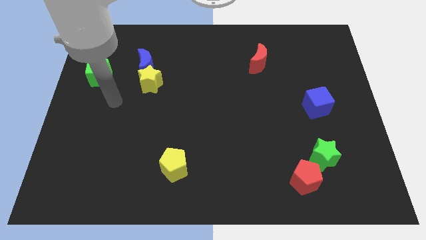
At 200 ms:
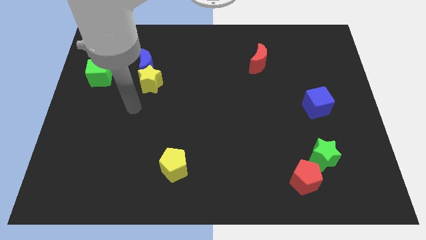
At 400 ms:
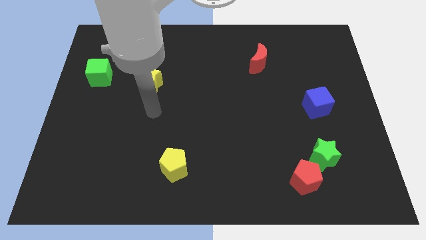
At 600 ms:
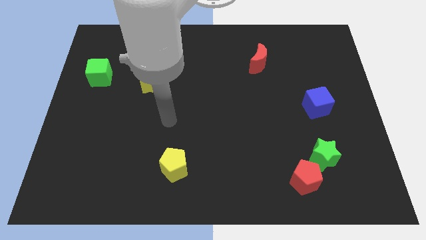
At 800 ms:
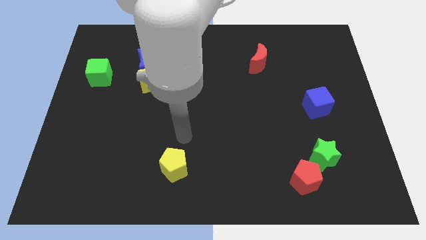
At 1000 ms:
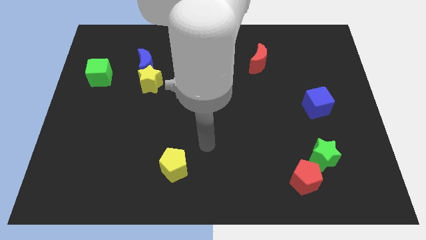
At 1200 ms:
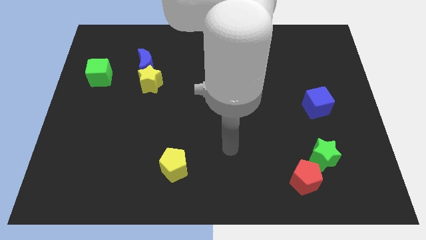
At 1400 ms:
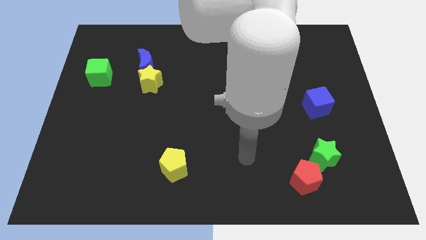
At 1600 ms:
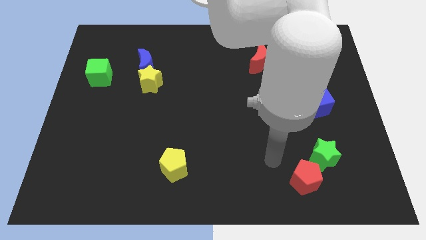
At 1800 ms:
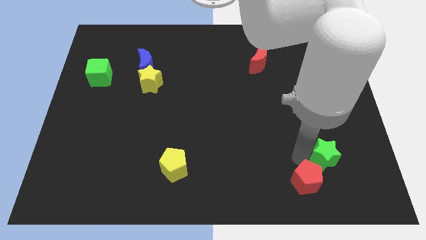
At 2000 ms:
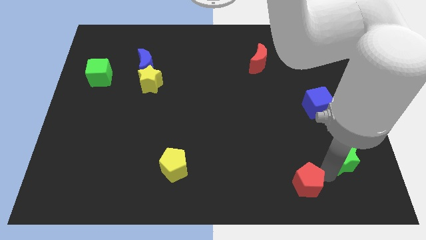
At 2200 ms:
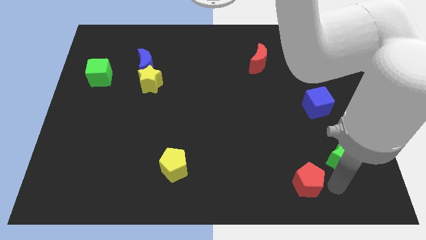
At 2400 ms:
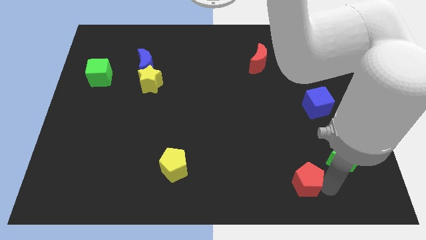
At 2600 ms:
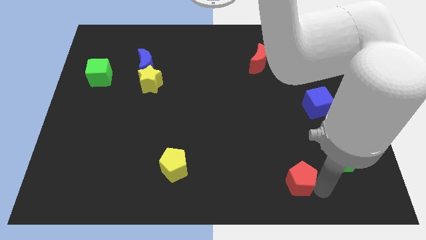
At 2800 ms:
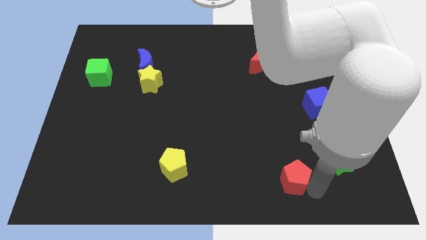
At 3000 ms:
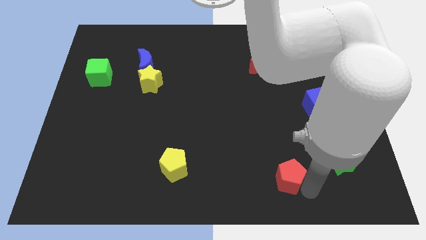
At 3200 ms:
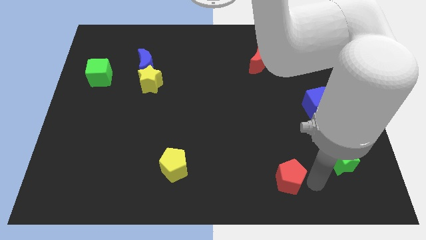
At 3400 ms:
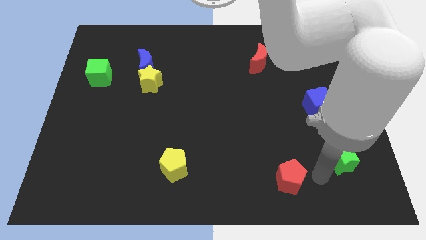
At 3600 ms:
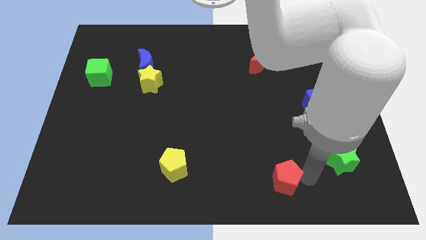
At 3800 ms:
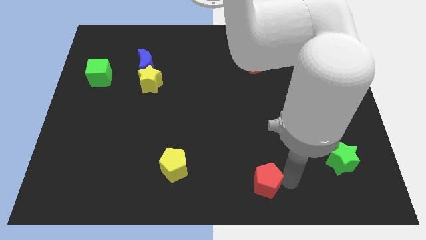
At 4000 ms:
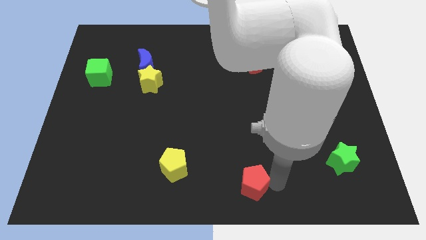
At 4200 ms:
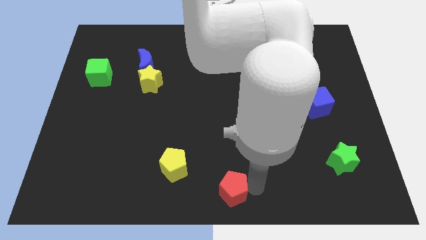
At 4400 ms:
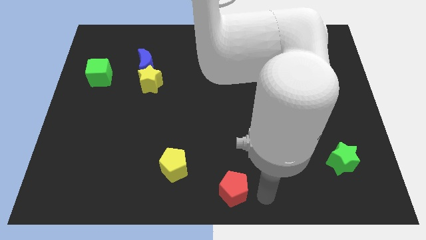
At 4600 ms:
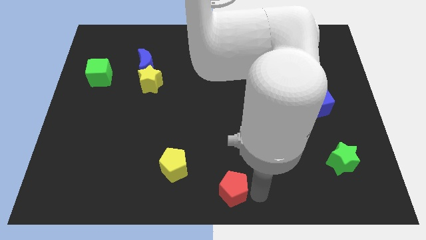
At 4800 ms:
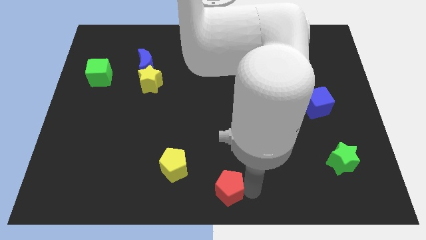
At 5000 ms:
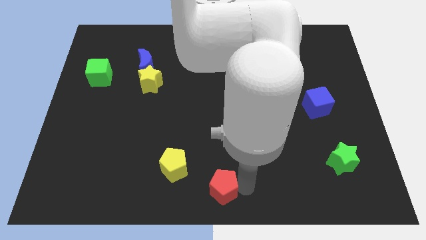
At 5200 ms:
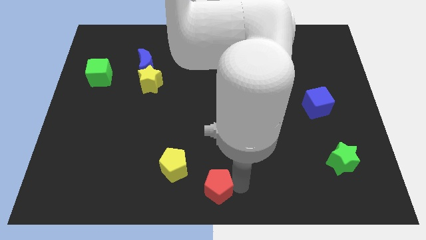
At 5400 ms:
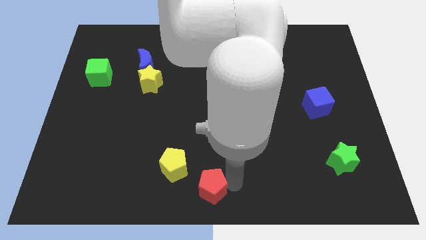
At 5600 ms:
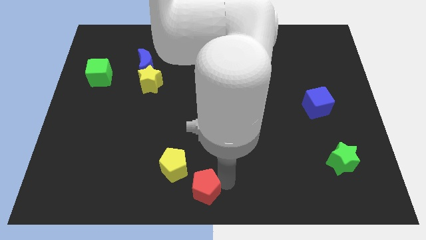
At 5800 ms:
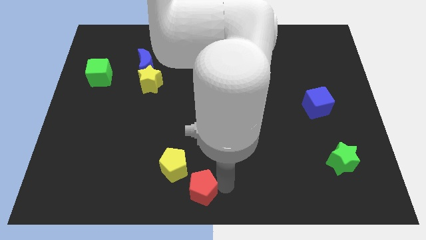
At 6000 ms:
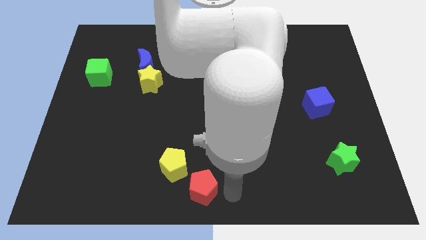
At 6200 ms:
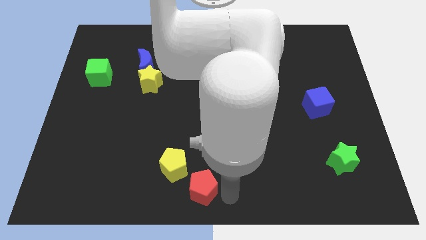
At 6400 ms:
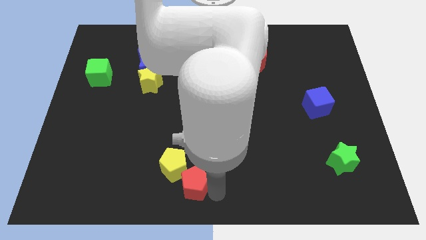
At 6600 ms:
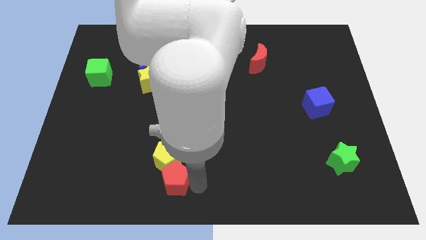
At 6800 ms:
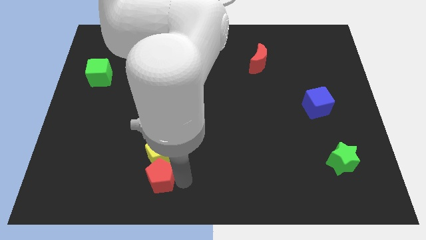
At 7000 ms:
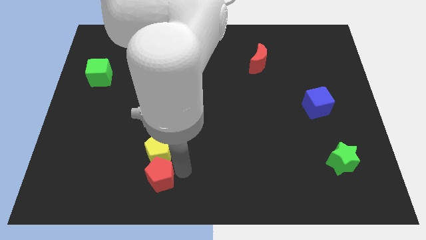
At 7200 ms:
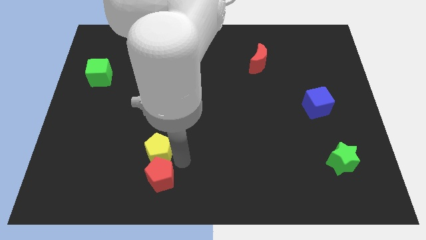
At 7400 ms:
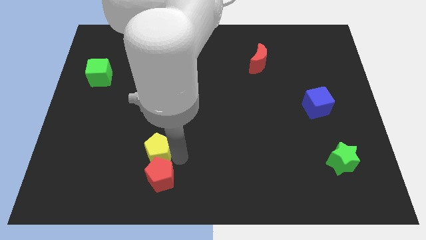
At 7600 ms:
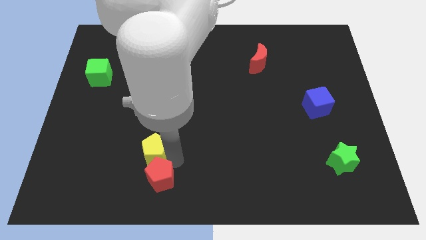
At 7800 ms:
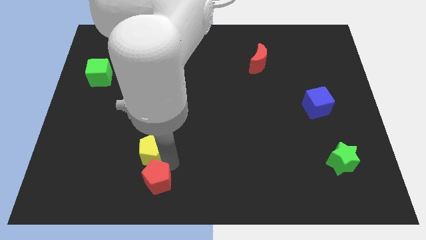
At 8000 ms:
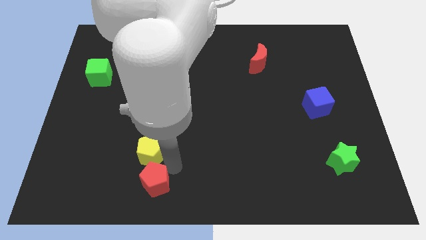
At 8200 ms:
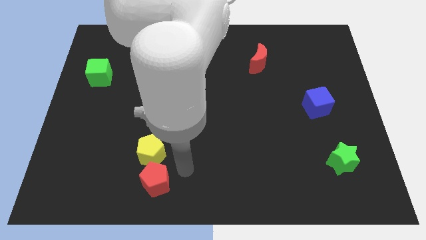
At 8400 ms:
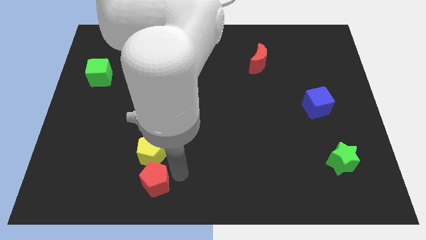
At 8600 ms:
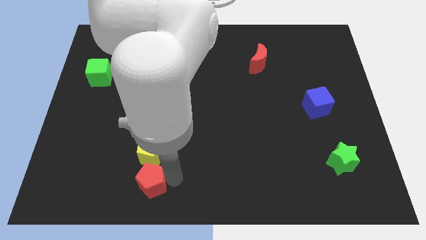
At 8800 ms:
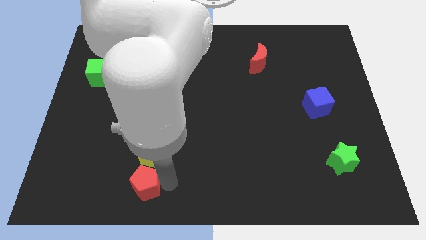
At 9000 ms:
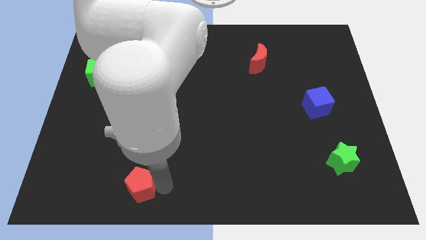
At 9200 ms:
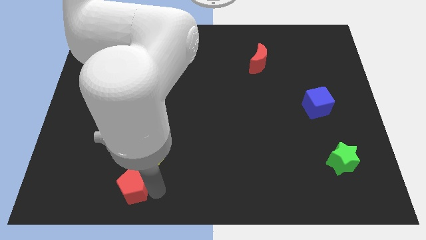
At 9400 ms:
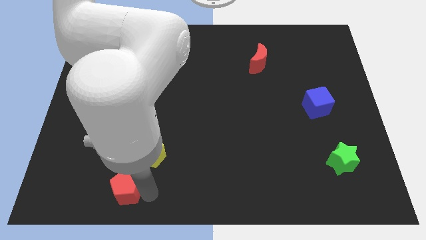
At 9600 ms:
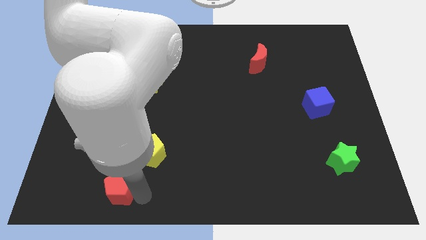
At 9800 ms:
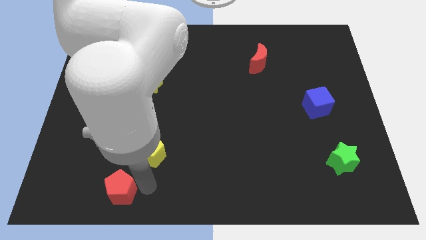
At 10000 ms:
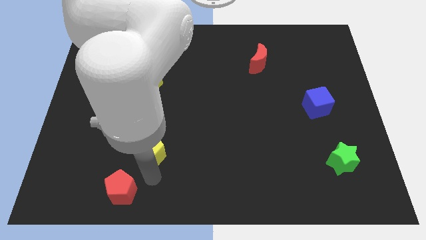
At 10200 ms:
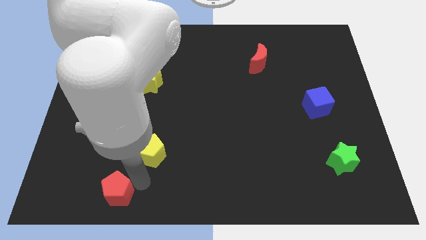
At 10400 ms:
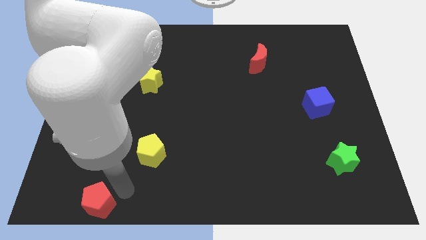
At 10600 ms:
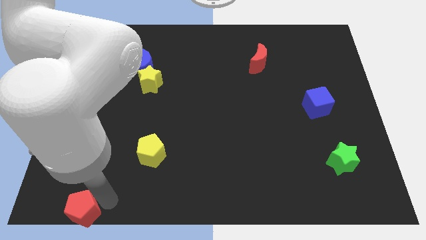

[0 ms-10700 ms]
push the red pentagon to the lower left corner
